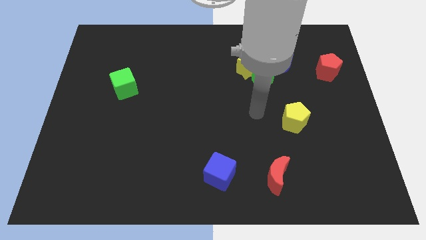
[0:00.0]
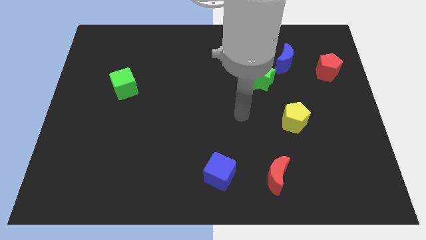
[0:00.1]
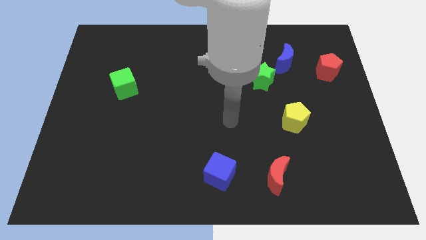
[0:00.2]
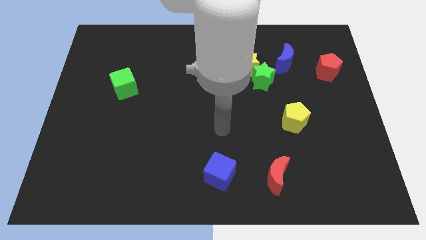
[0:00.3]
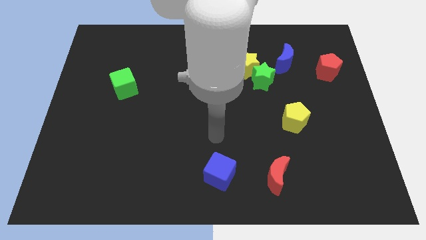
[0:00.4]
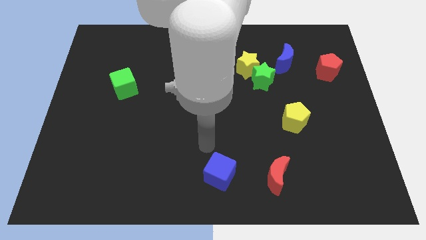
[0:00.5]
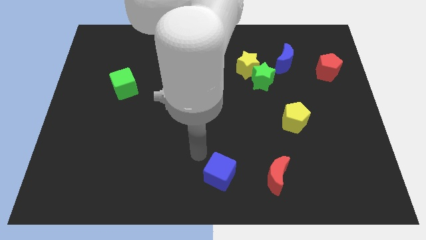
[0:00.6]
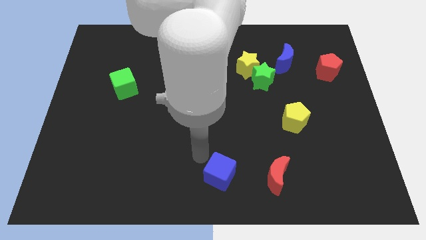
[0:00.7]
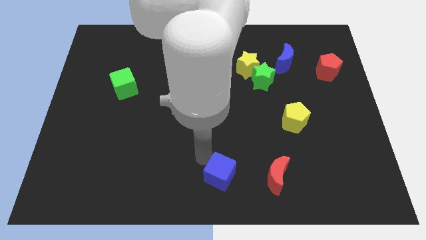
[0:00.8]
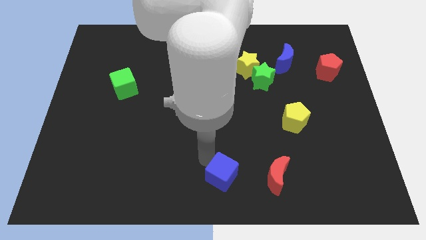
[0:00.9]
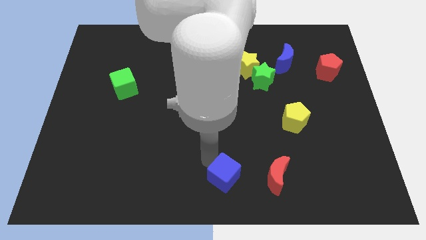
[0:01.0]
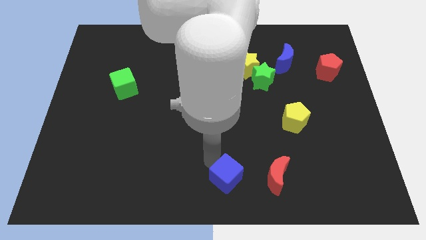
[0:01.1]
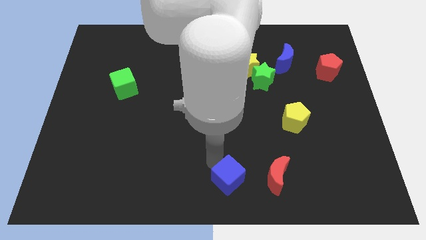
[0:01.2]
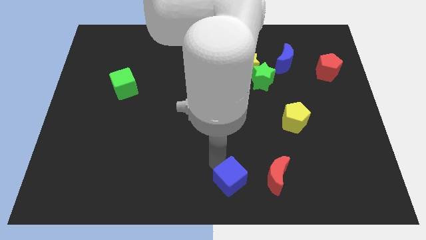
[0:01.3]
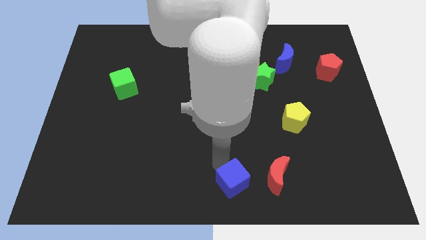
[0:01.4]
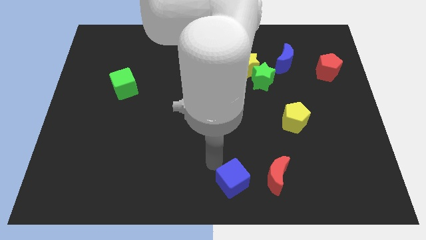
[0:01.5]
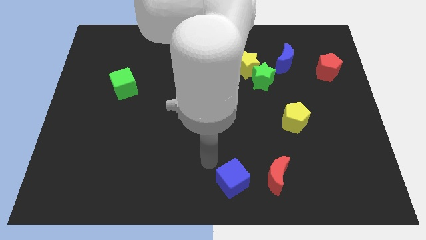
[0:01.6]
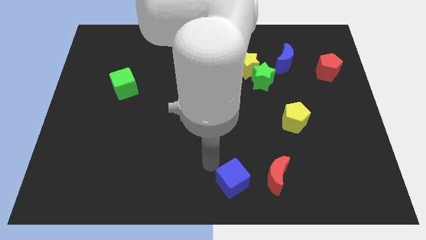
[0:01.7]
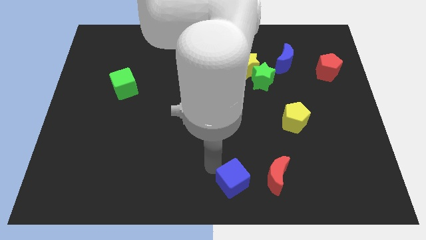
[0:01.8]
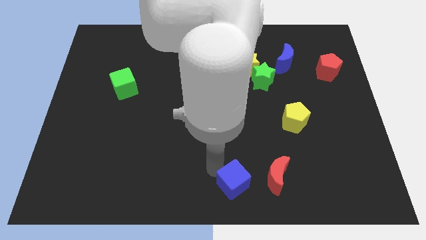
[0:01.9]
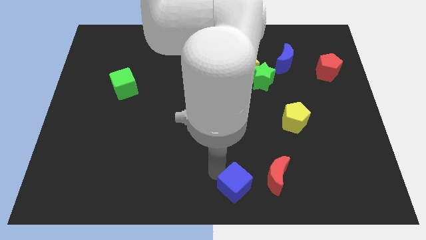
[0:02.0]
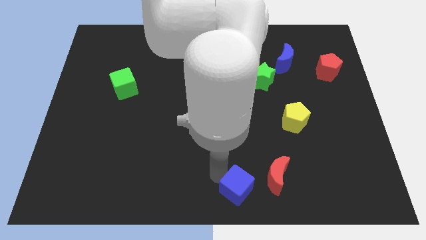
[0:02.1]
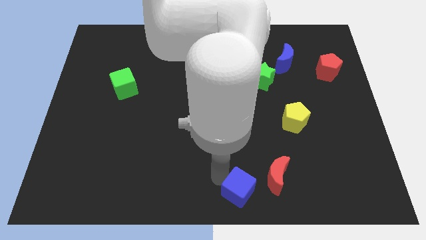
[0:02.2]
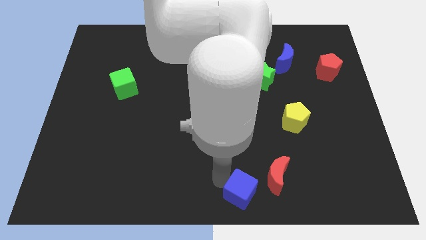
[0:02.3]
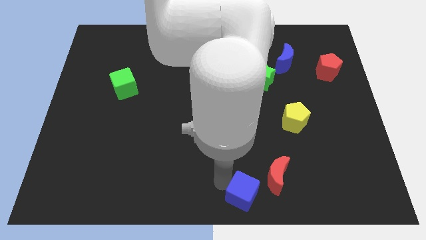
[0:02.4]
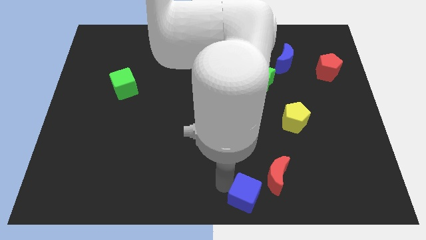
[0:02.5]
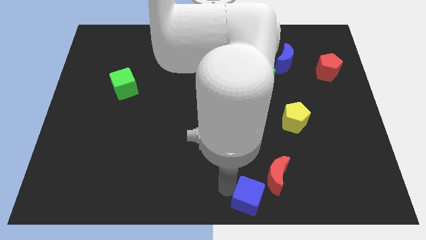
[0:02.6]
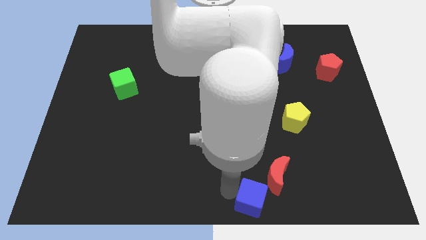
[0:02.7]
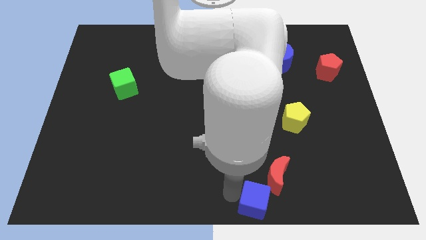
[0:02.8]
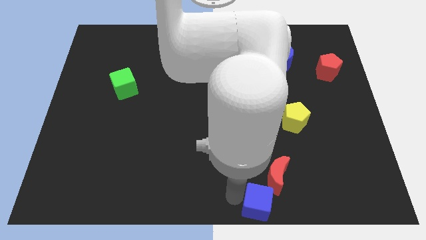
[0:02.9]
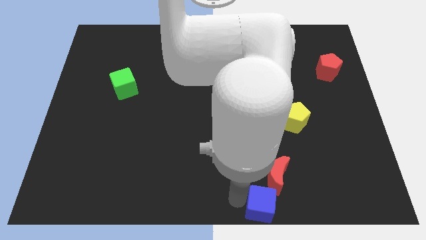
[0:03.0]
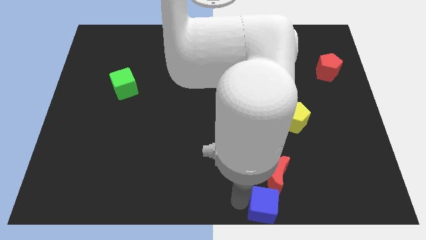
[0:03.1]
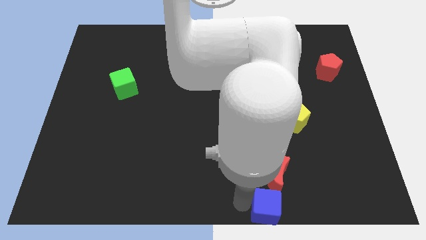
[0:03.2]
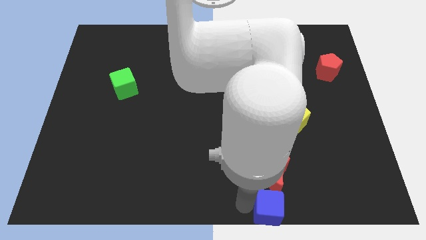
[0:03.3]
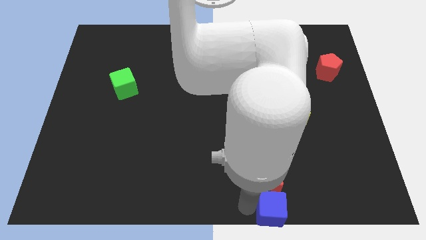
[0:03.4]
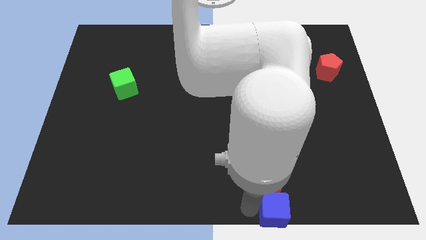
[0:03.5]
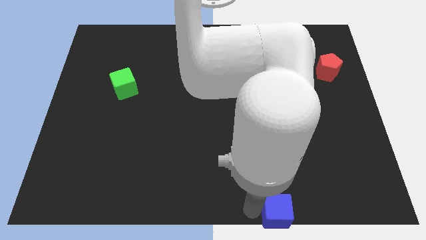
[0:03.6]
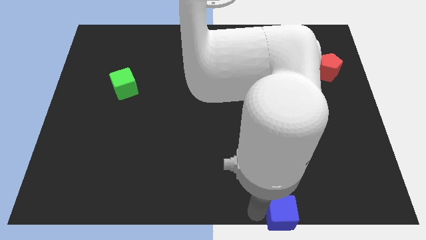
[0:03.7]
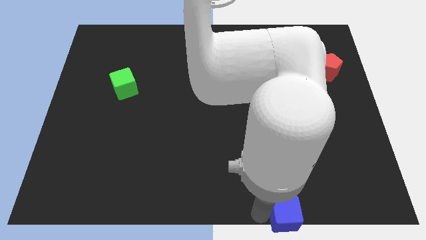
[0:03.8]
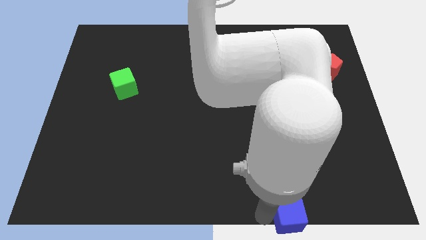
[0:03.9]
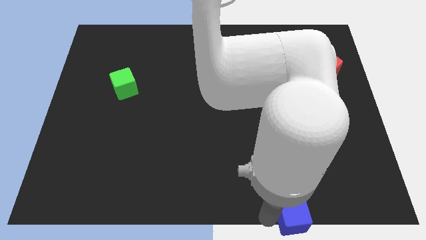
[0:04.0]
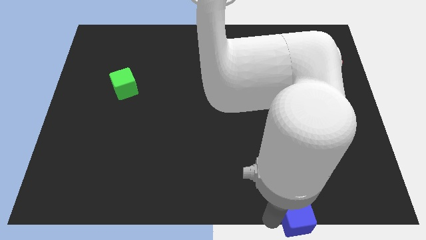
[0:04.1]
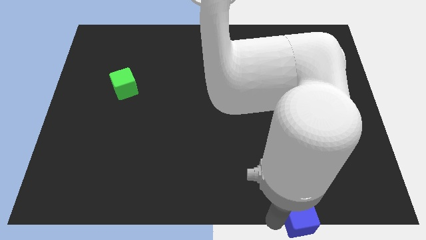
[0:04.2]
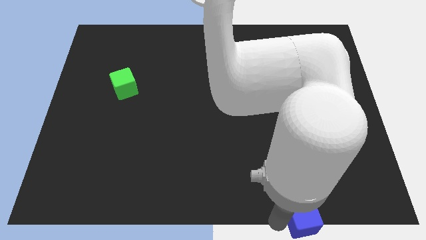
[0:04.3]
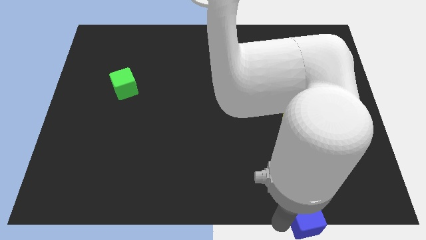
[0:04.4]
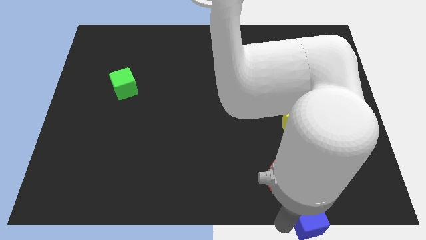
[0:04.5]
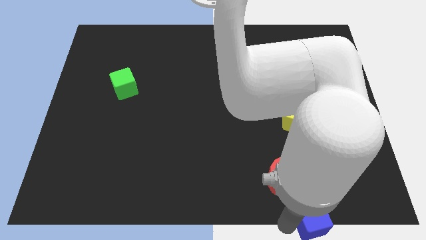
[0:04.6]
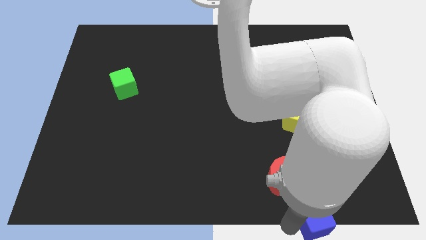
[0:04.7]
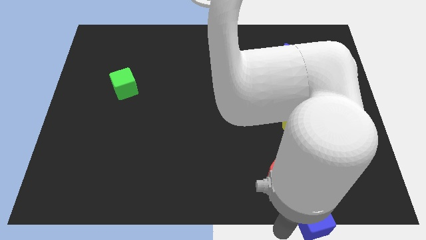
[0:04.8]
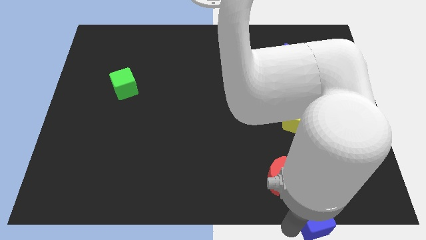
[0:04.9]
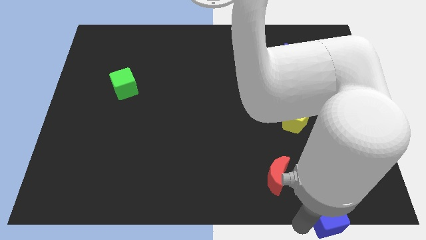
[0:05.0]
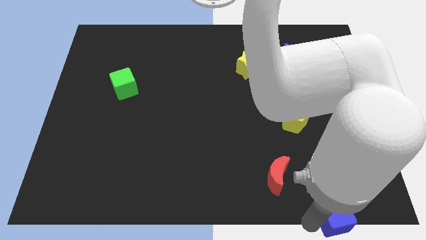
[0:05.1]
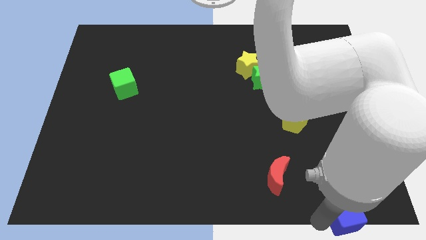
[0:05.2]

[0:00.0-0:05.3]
push the blue cube to the bottom right corner

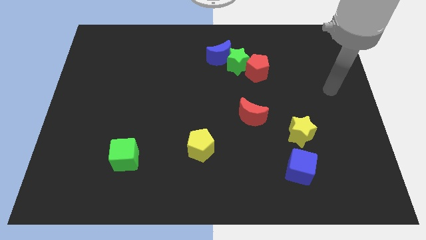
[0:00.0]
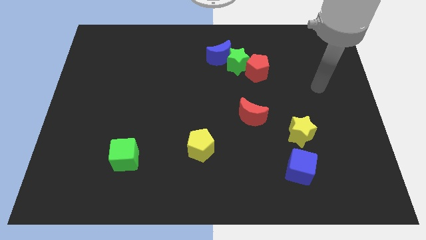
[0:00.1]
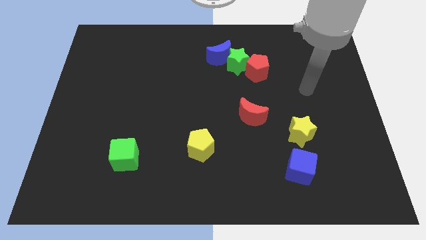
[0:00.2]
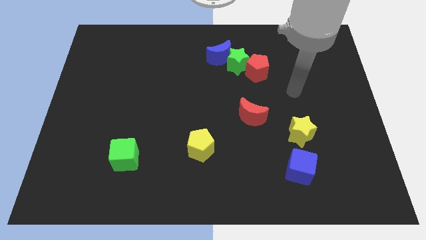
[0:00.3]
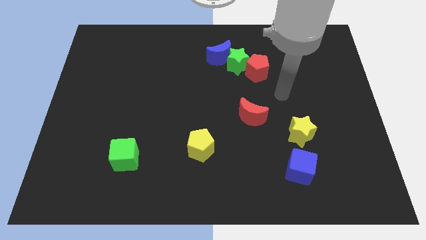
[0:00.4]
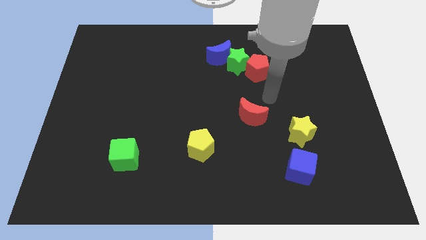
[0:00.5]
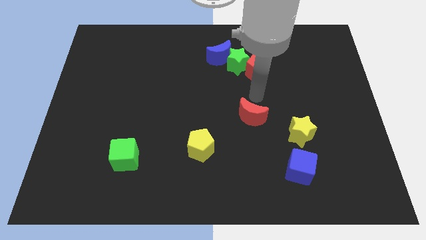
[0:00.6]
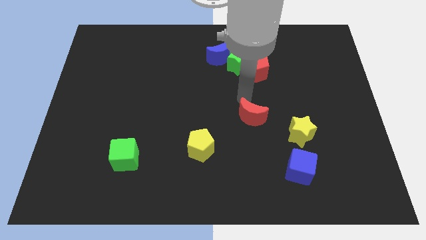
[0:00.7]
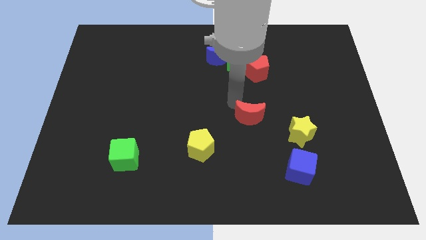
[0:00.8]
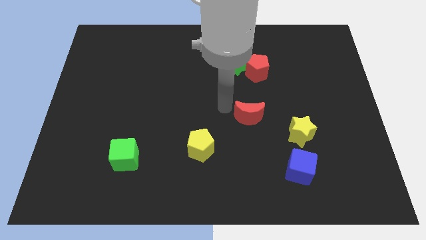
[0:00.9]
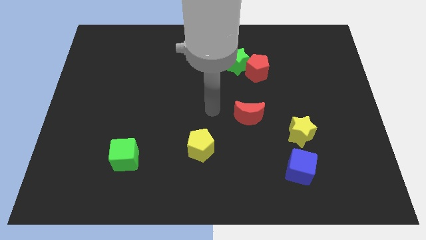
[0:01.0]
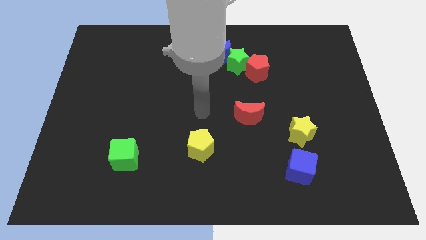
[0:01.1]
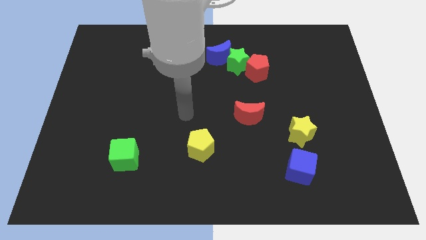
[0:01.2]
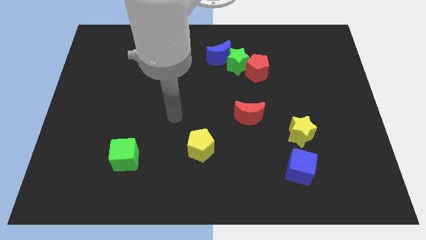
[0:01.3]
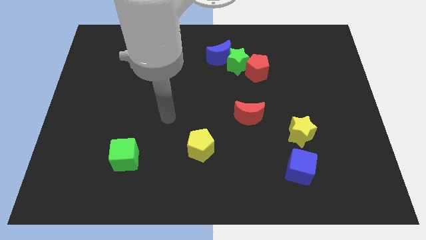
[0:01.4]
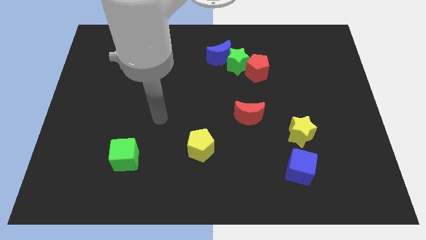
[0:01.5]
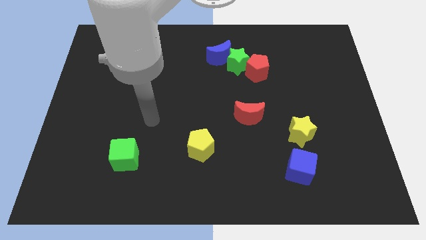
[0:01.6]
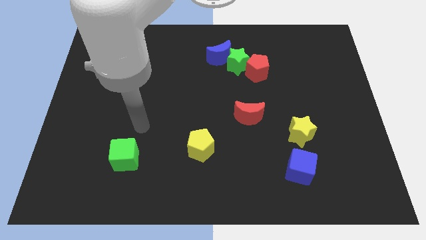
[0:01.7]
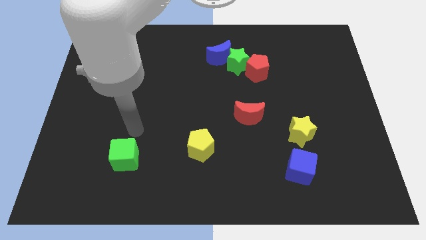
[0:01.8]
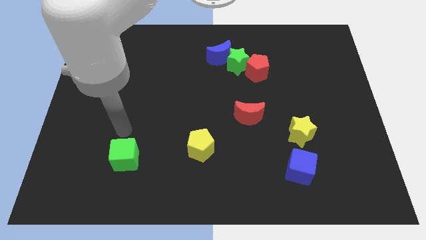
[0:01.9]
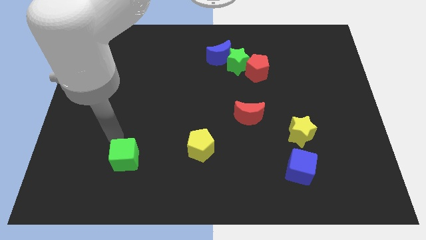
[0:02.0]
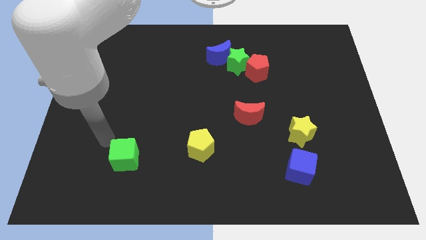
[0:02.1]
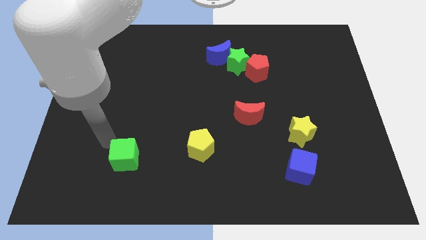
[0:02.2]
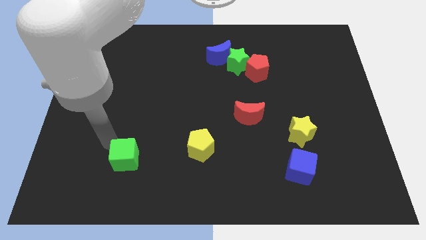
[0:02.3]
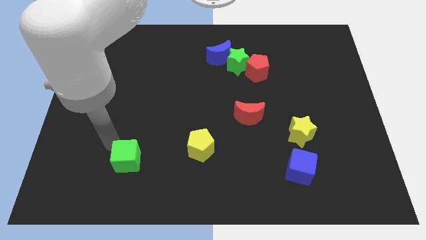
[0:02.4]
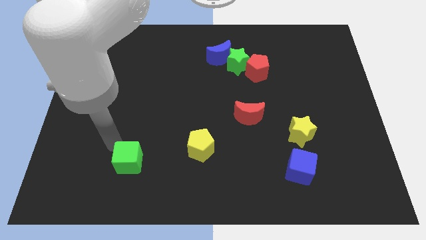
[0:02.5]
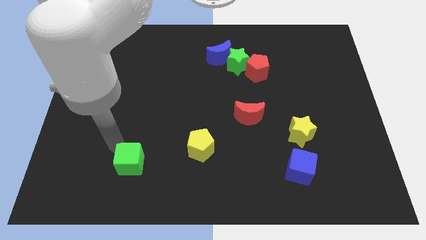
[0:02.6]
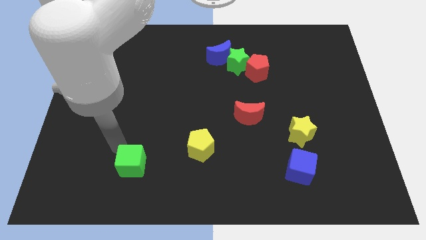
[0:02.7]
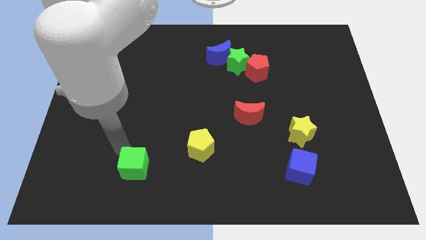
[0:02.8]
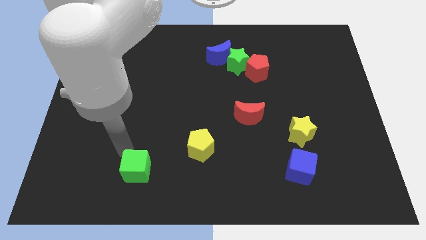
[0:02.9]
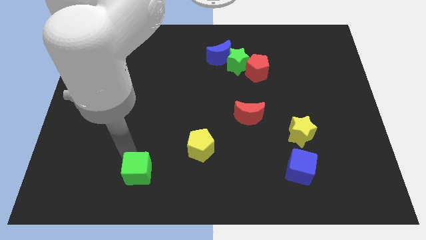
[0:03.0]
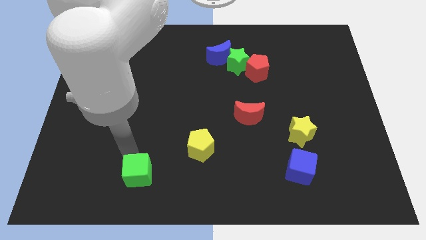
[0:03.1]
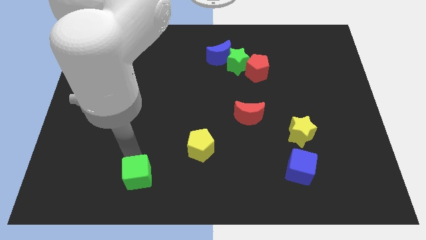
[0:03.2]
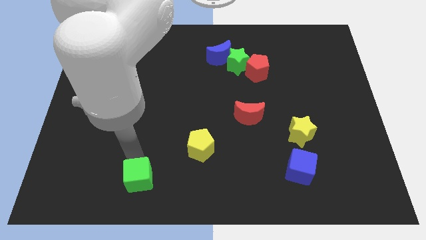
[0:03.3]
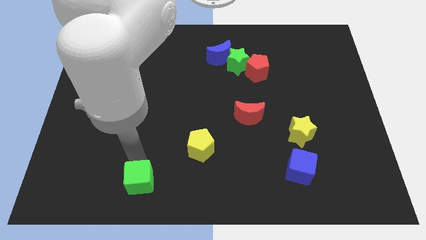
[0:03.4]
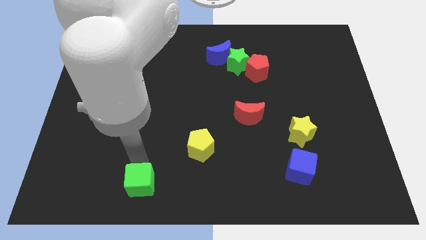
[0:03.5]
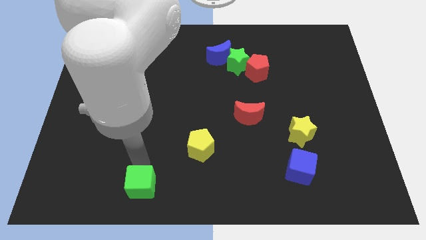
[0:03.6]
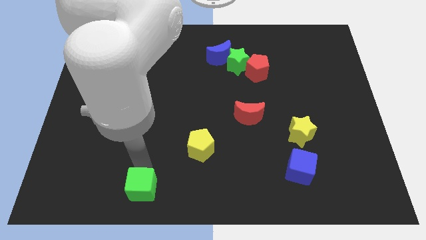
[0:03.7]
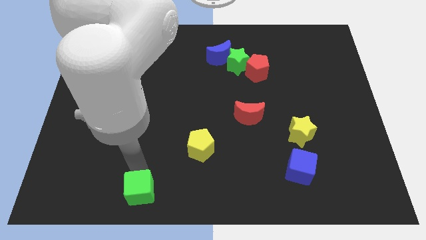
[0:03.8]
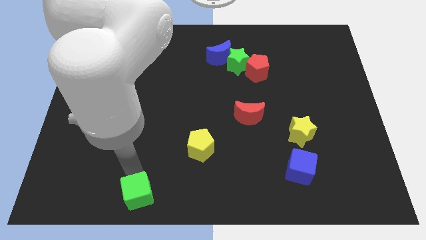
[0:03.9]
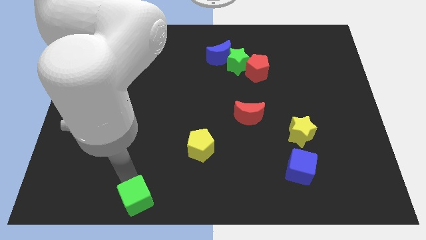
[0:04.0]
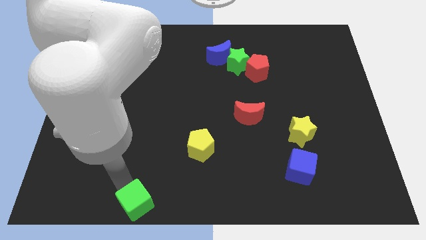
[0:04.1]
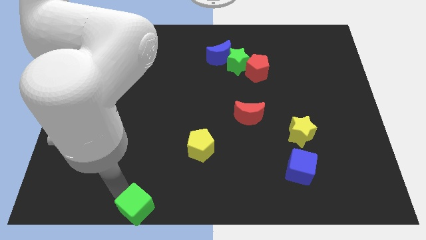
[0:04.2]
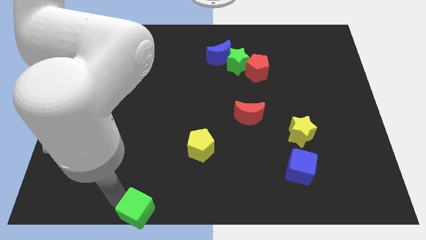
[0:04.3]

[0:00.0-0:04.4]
slide the green cube to the bottom side
